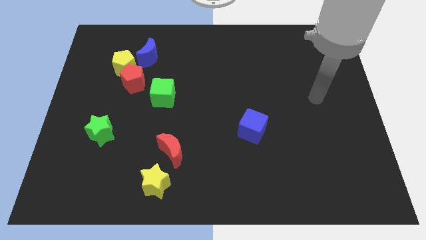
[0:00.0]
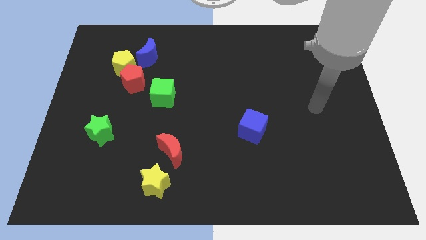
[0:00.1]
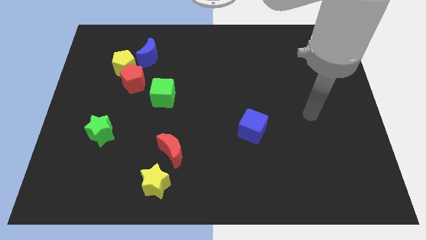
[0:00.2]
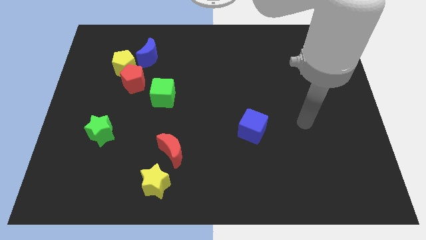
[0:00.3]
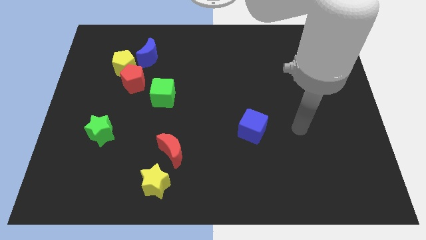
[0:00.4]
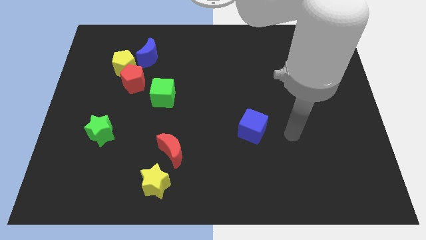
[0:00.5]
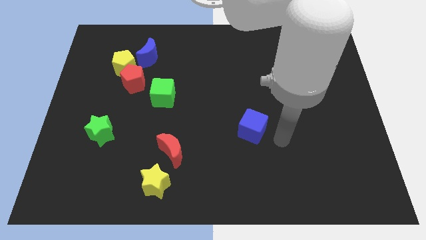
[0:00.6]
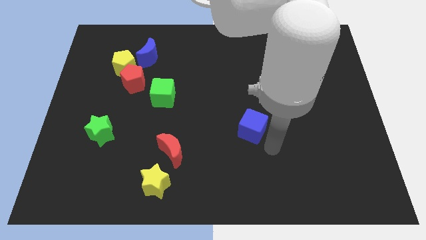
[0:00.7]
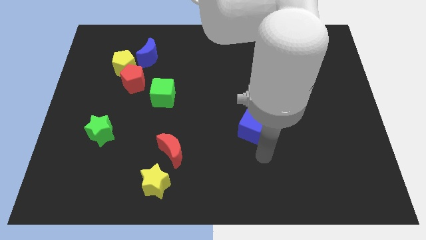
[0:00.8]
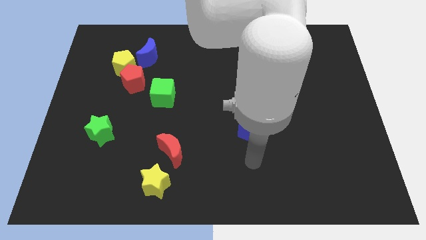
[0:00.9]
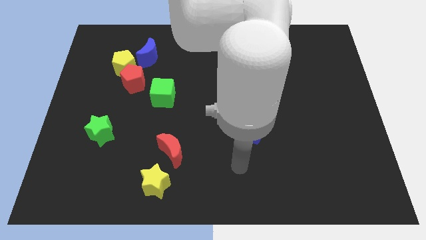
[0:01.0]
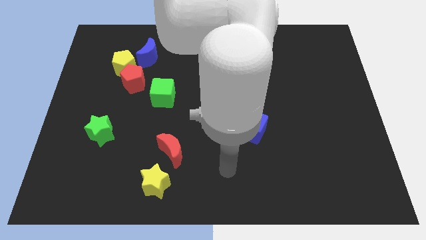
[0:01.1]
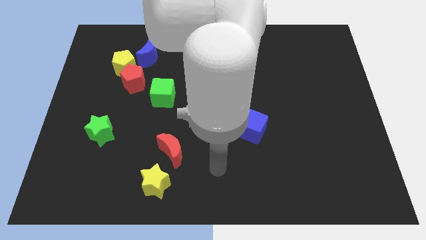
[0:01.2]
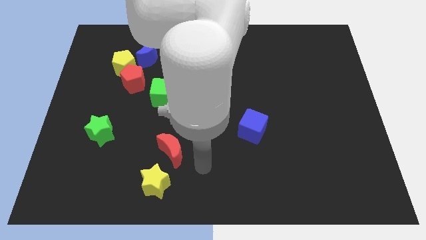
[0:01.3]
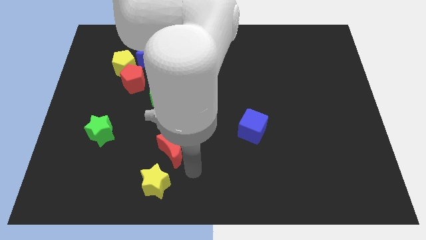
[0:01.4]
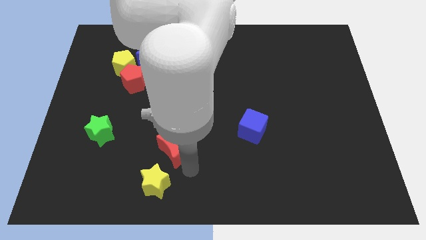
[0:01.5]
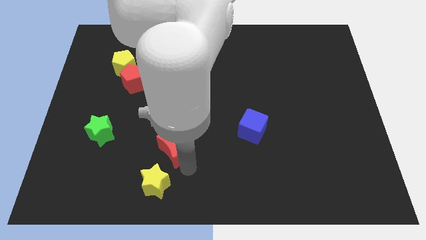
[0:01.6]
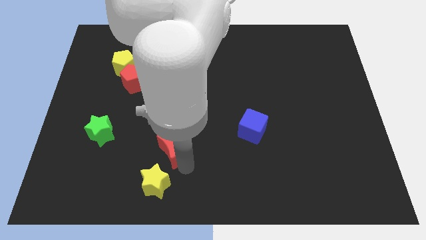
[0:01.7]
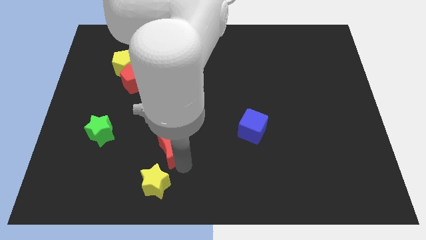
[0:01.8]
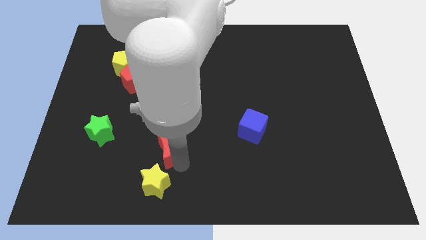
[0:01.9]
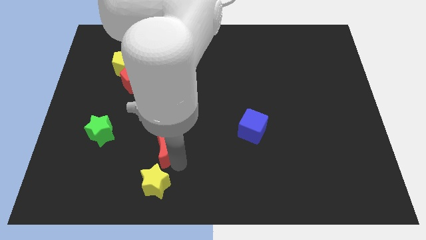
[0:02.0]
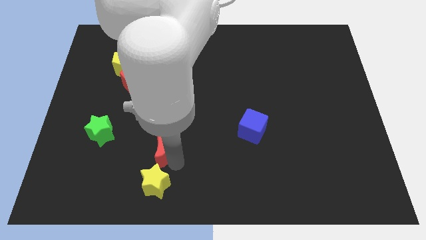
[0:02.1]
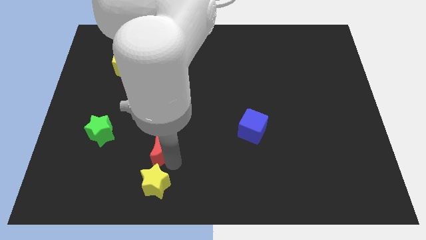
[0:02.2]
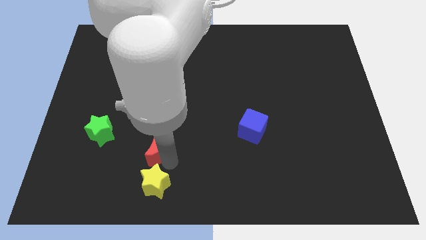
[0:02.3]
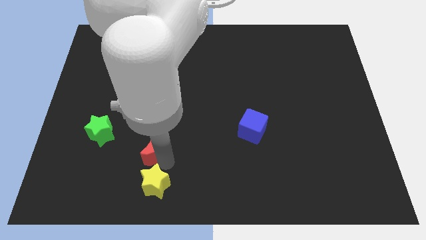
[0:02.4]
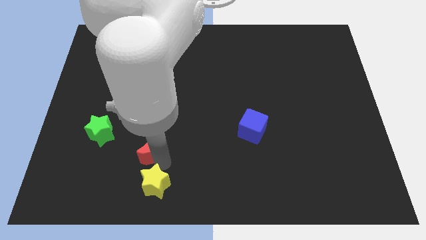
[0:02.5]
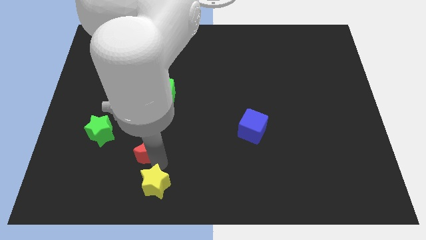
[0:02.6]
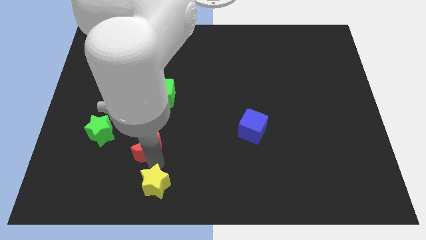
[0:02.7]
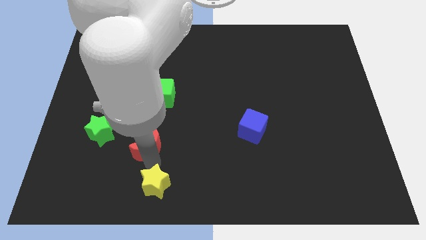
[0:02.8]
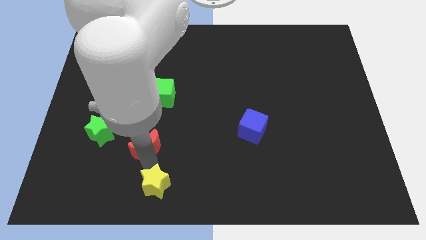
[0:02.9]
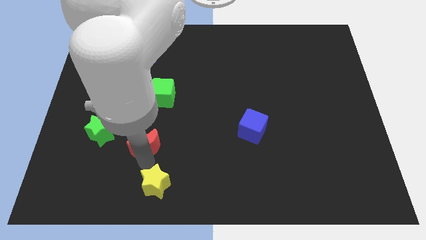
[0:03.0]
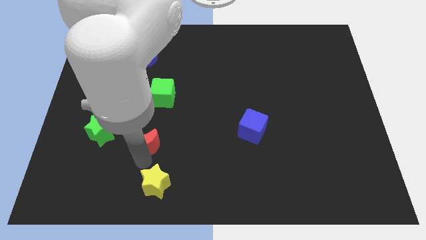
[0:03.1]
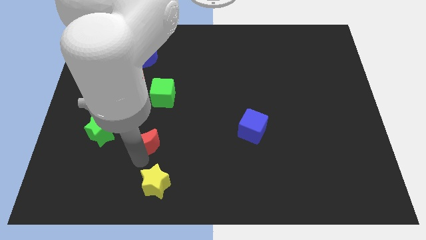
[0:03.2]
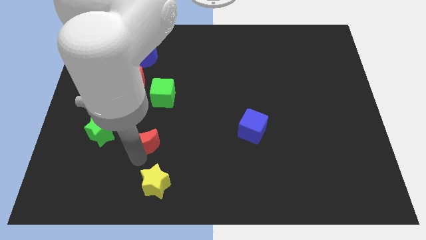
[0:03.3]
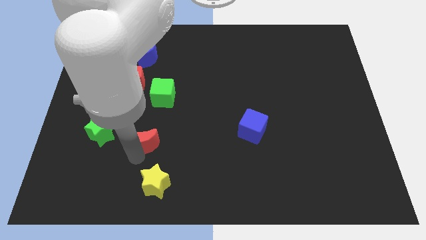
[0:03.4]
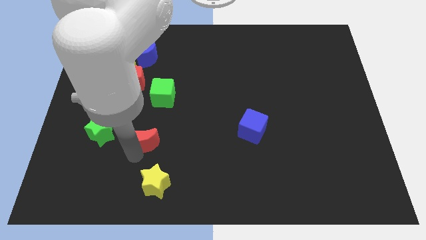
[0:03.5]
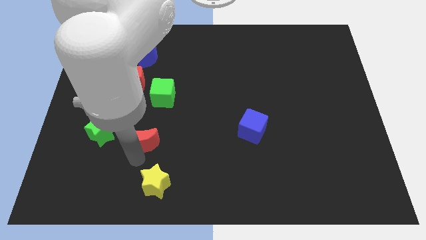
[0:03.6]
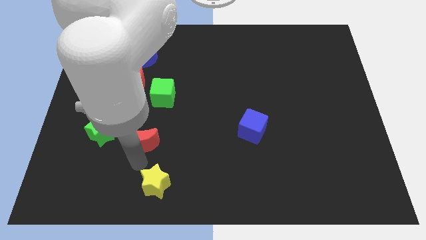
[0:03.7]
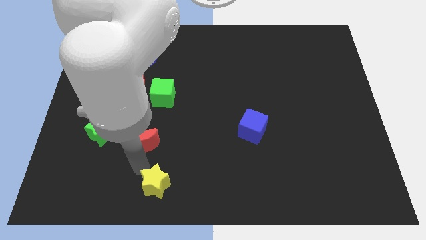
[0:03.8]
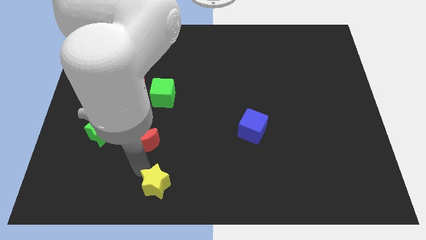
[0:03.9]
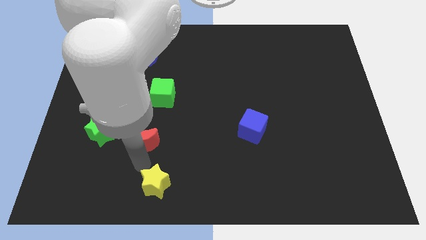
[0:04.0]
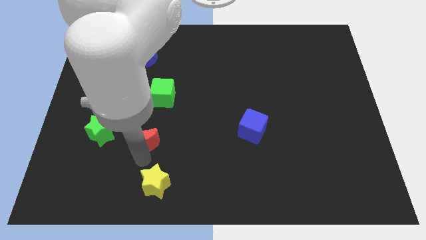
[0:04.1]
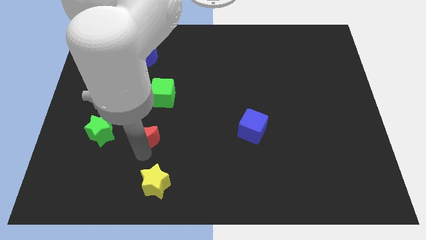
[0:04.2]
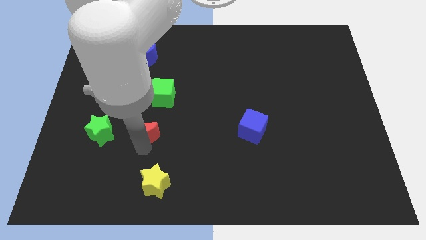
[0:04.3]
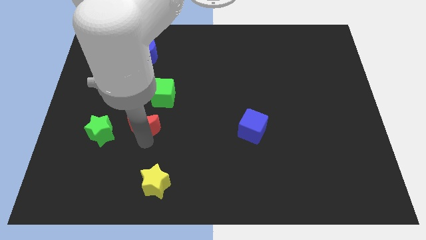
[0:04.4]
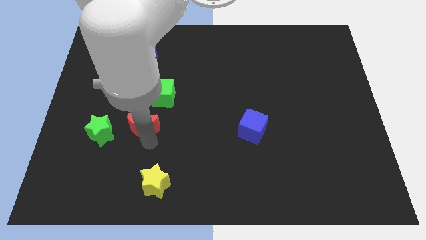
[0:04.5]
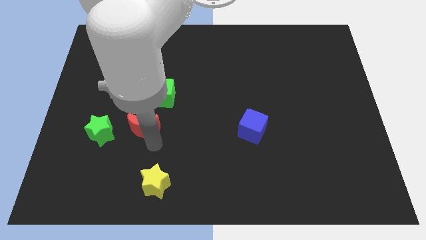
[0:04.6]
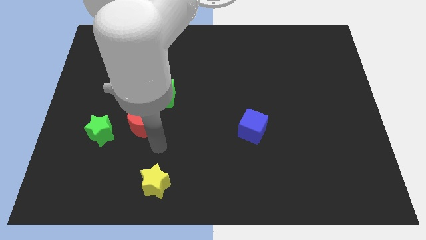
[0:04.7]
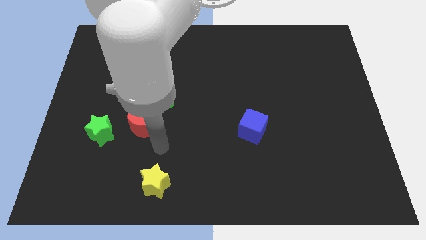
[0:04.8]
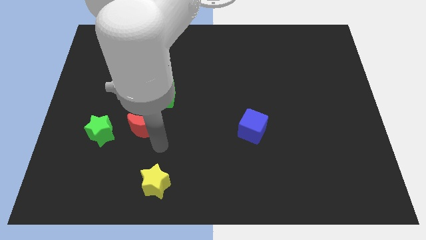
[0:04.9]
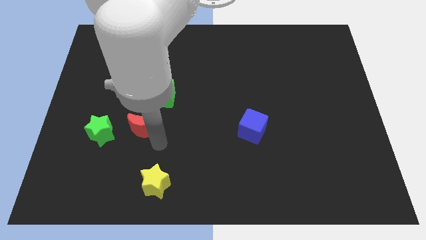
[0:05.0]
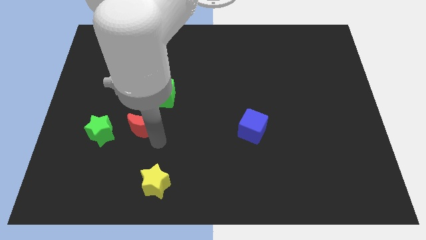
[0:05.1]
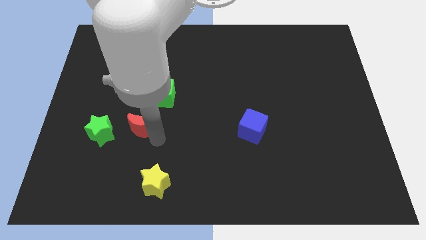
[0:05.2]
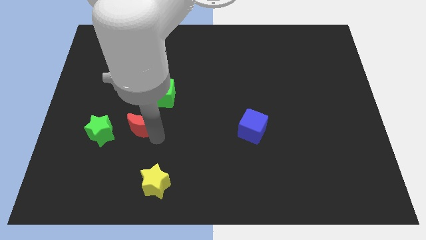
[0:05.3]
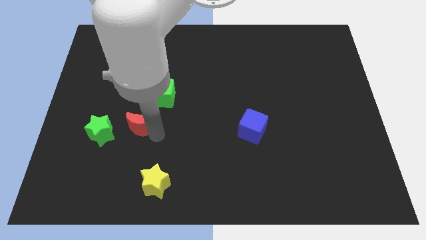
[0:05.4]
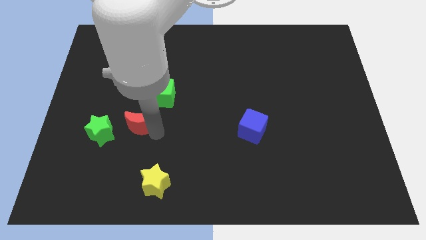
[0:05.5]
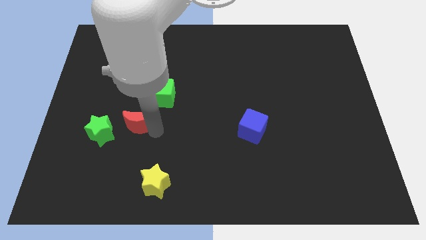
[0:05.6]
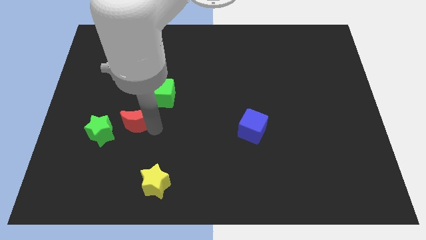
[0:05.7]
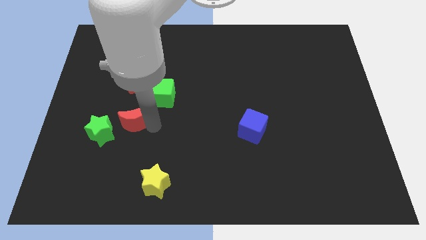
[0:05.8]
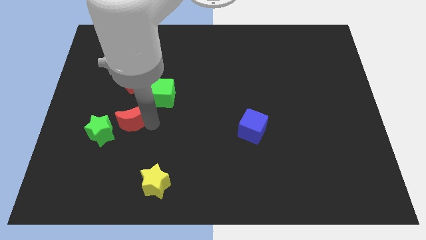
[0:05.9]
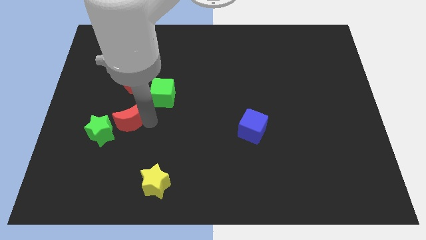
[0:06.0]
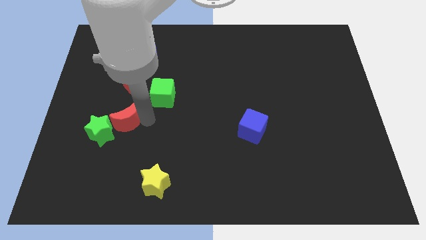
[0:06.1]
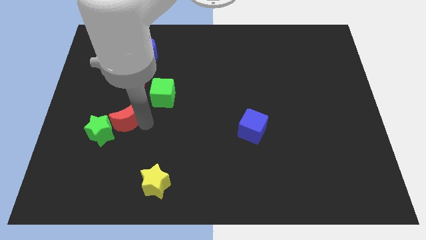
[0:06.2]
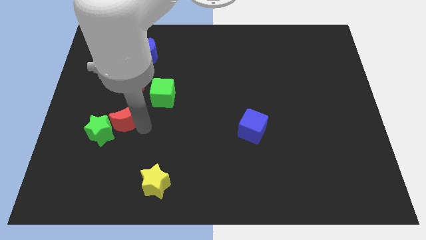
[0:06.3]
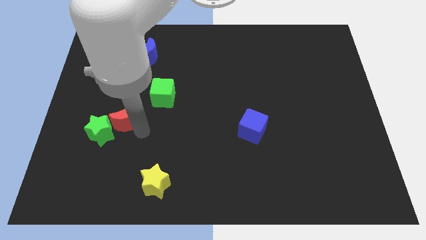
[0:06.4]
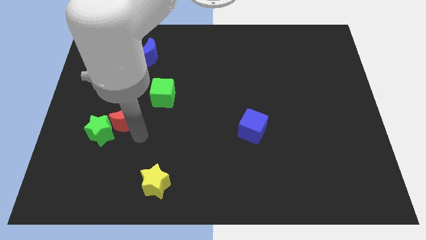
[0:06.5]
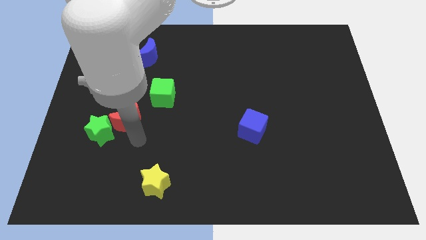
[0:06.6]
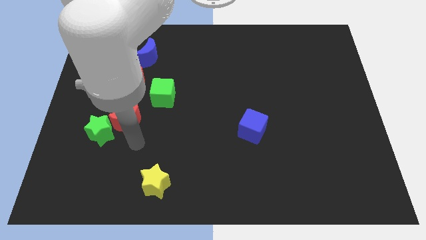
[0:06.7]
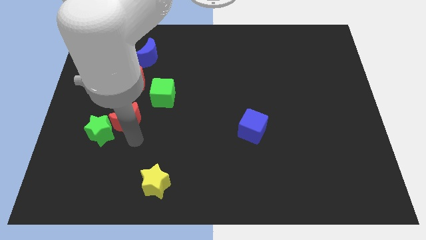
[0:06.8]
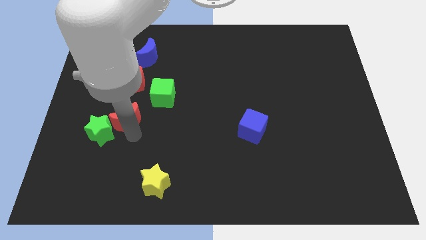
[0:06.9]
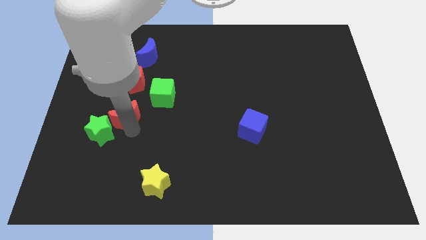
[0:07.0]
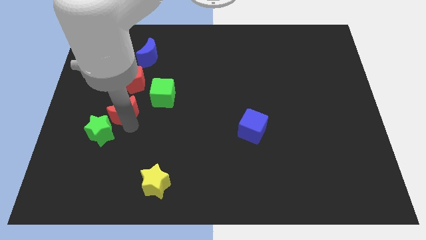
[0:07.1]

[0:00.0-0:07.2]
put the red moon to the top side of the green star

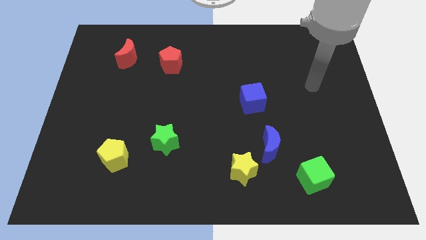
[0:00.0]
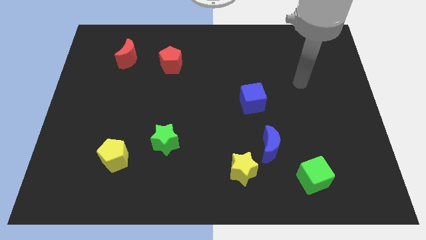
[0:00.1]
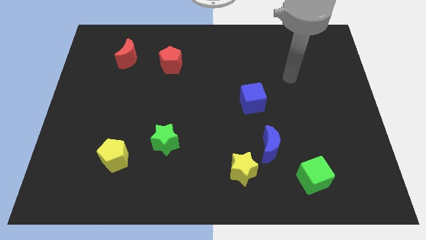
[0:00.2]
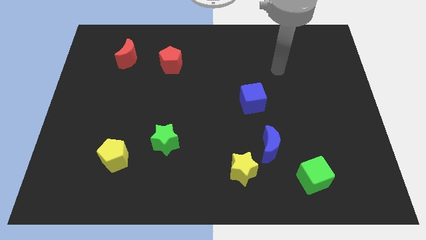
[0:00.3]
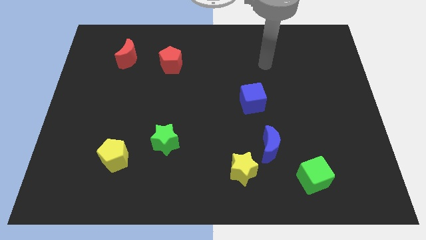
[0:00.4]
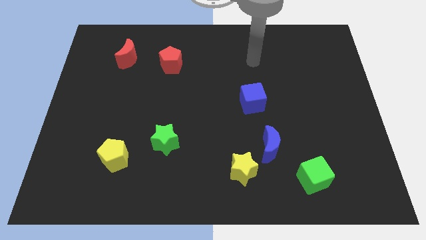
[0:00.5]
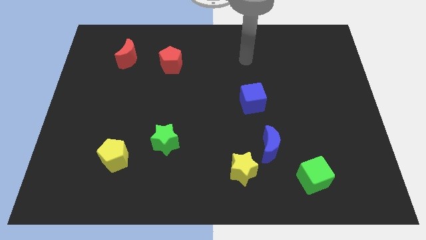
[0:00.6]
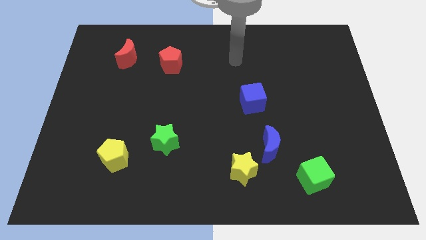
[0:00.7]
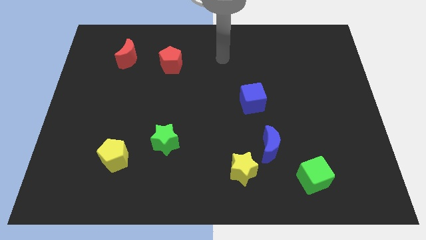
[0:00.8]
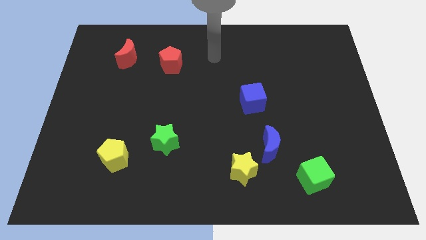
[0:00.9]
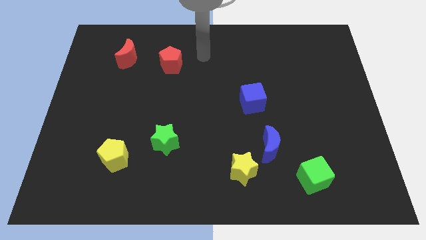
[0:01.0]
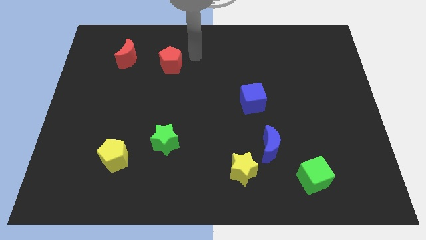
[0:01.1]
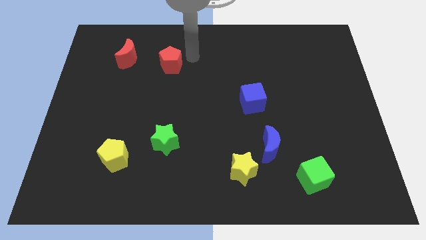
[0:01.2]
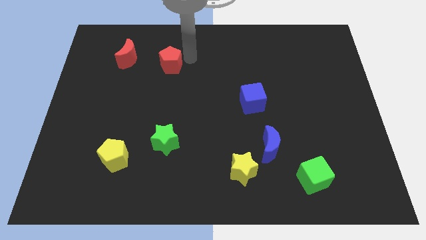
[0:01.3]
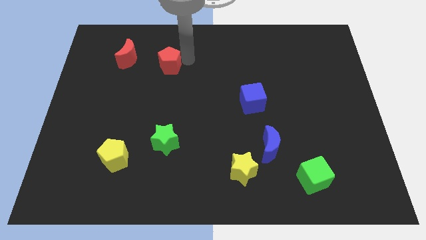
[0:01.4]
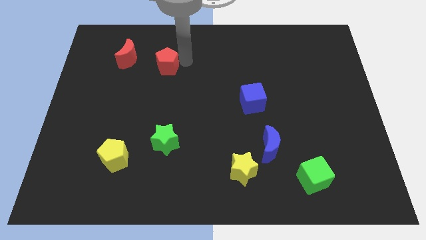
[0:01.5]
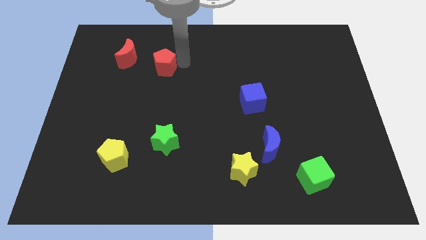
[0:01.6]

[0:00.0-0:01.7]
move the red pentagon to the bottom right of the red moon
